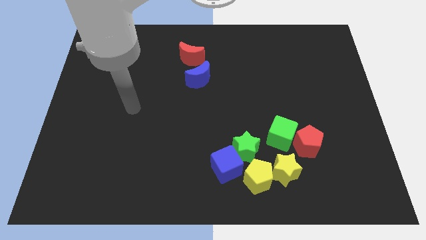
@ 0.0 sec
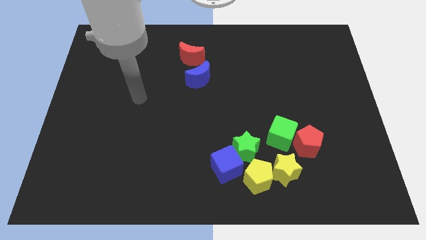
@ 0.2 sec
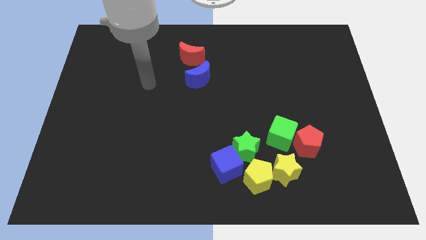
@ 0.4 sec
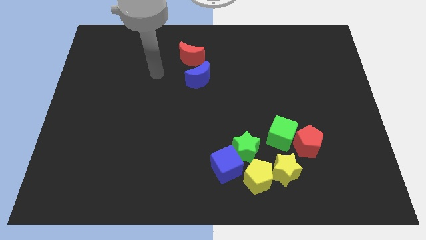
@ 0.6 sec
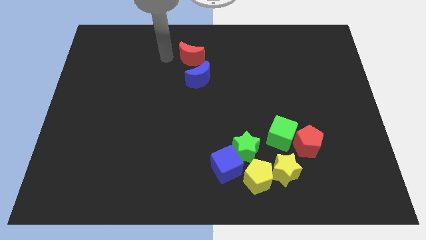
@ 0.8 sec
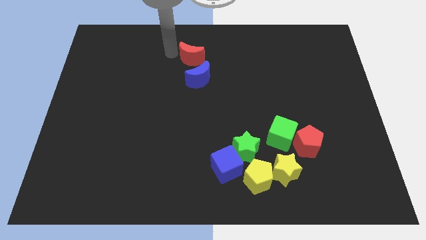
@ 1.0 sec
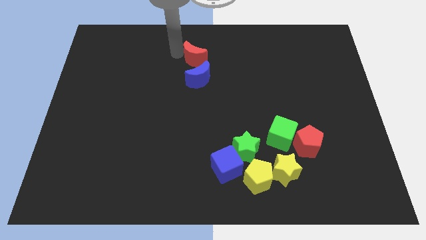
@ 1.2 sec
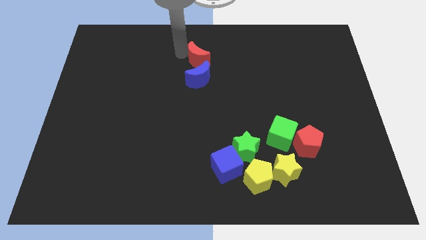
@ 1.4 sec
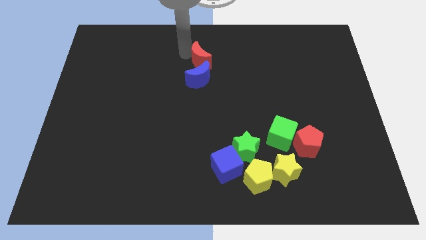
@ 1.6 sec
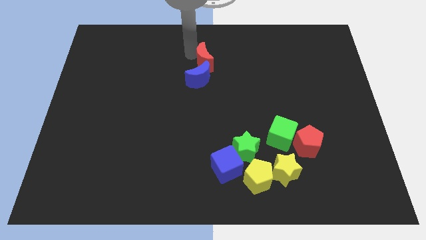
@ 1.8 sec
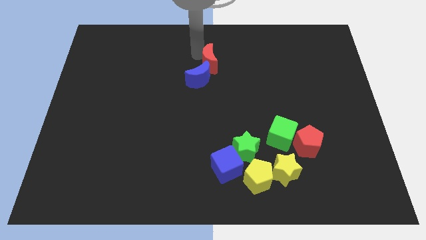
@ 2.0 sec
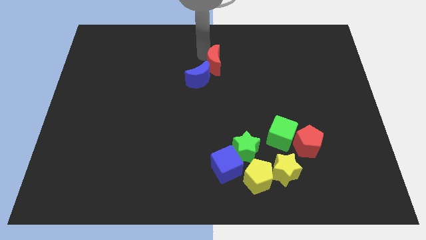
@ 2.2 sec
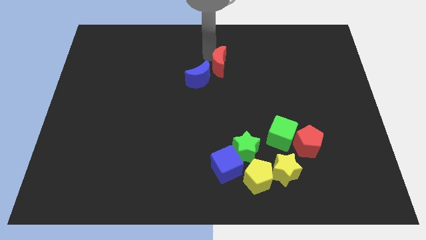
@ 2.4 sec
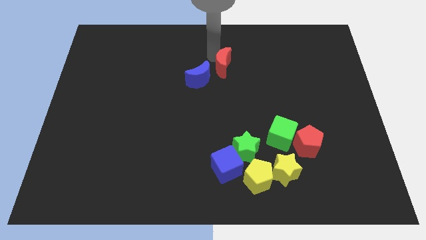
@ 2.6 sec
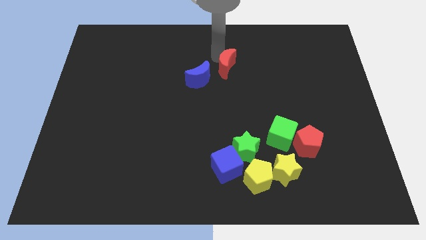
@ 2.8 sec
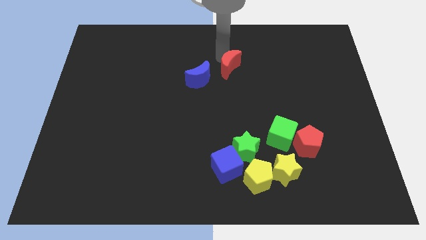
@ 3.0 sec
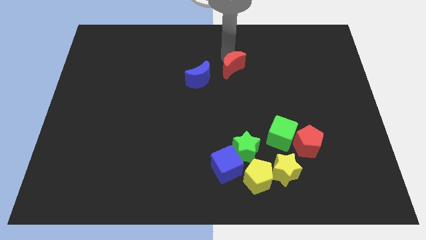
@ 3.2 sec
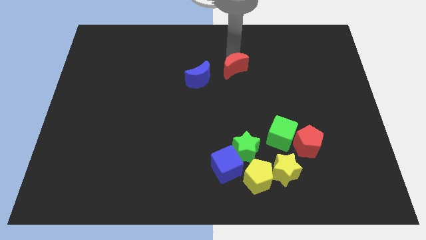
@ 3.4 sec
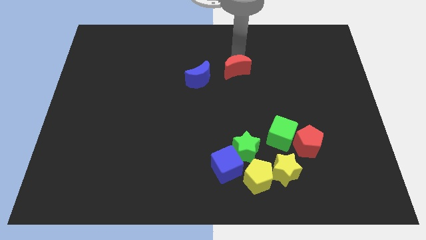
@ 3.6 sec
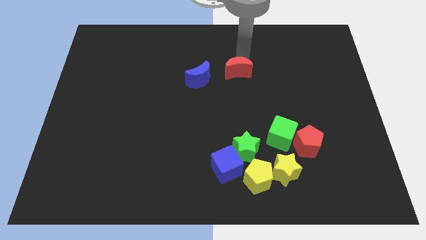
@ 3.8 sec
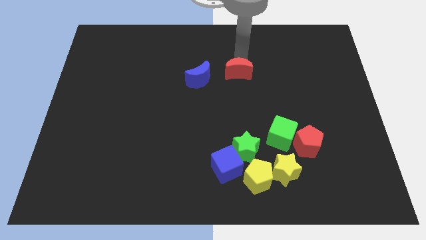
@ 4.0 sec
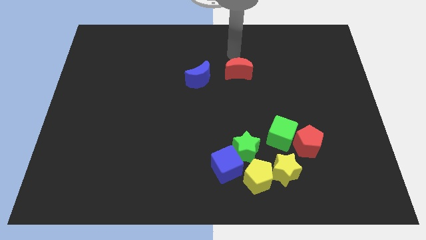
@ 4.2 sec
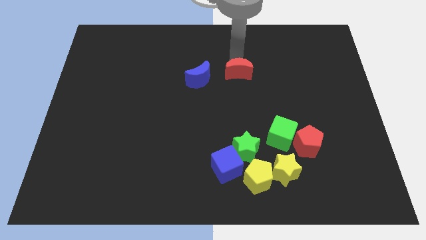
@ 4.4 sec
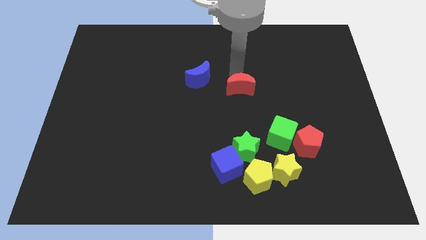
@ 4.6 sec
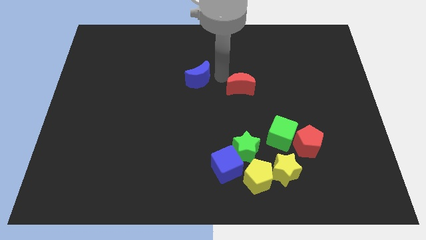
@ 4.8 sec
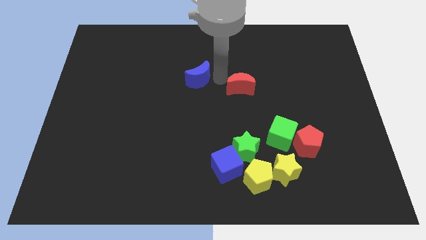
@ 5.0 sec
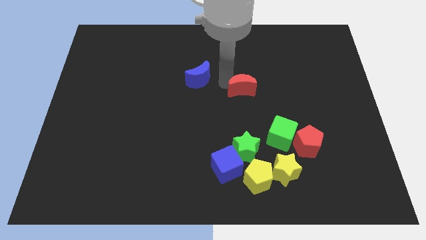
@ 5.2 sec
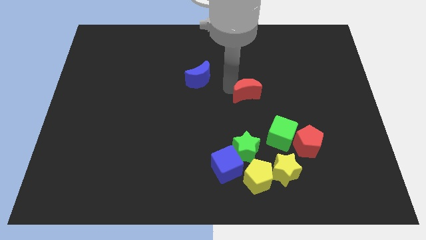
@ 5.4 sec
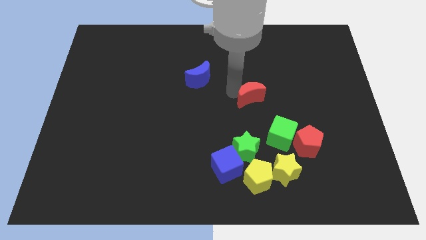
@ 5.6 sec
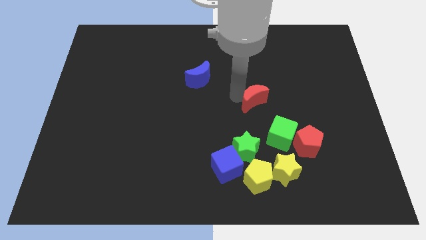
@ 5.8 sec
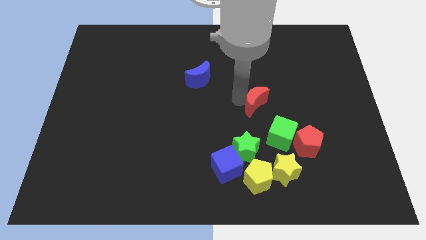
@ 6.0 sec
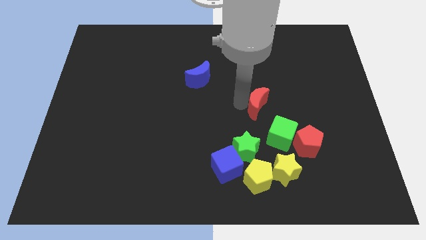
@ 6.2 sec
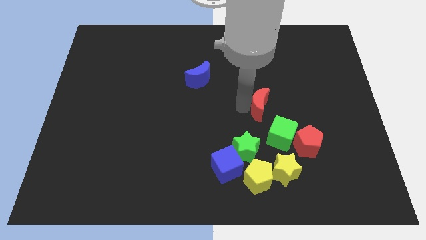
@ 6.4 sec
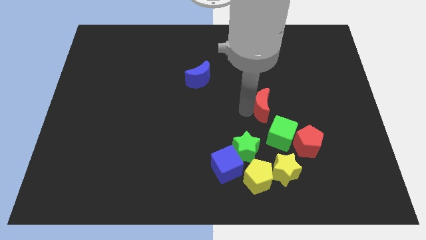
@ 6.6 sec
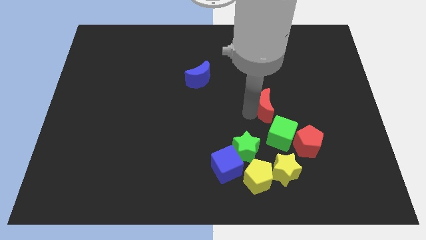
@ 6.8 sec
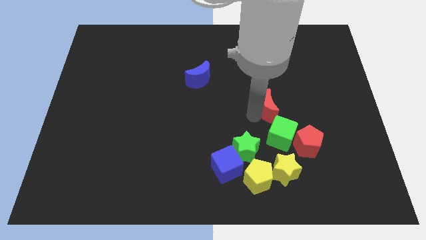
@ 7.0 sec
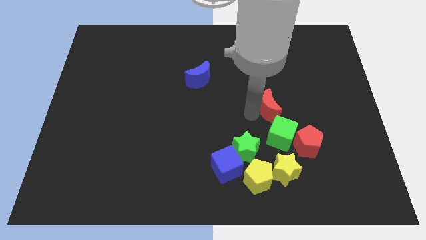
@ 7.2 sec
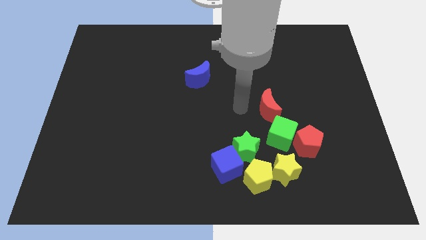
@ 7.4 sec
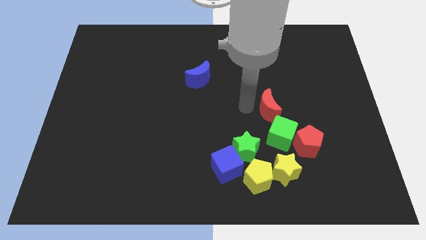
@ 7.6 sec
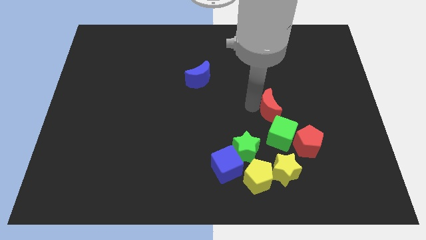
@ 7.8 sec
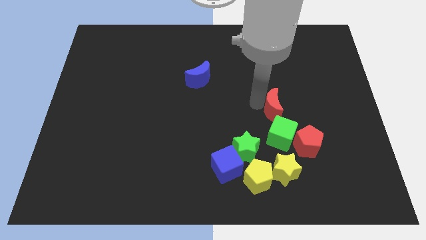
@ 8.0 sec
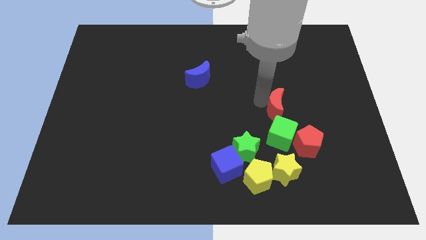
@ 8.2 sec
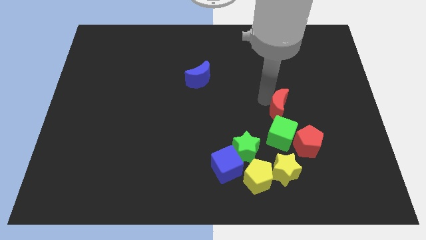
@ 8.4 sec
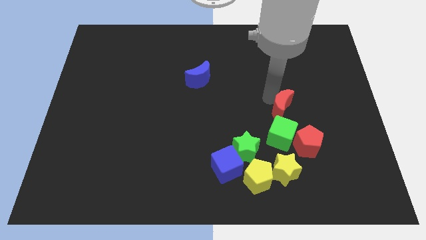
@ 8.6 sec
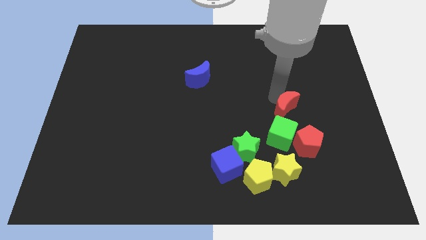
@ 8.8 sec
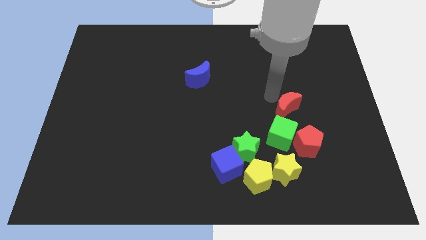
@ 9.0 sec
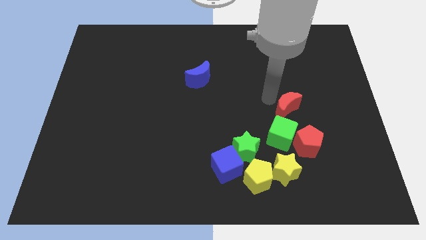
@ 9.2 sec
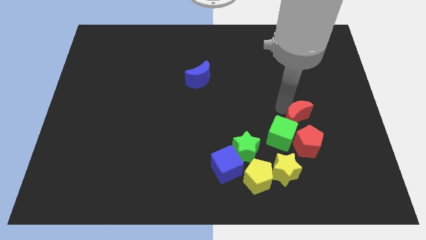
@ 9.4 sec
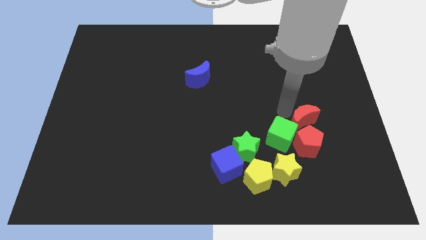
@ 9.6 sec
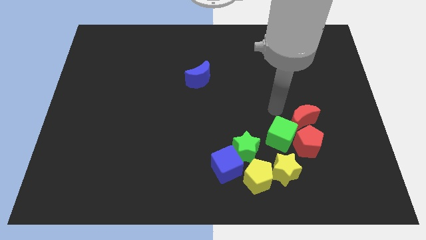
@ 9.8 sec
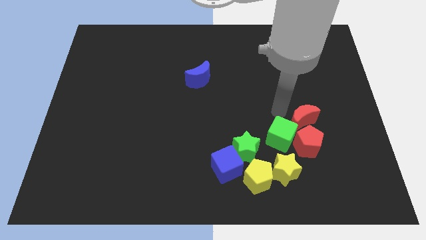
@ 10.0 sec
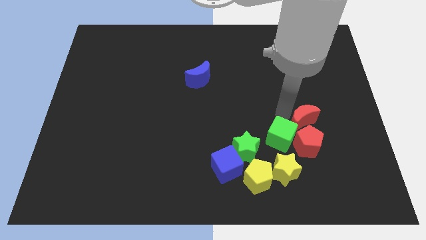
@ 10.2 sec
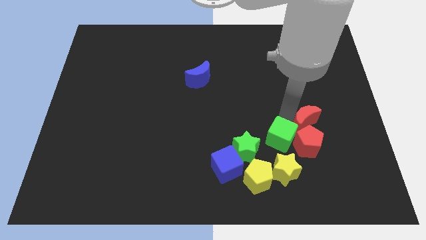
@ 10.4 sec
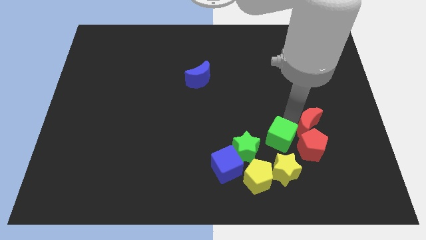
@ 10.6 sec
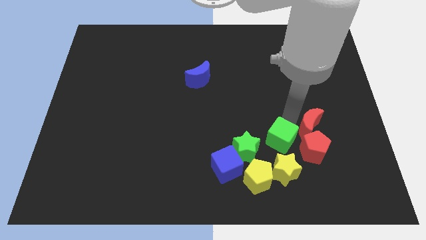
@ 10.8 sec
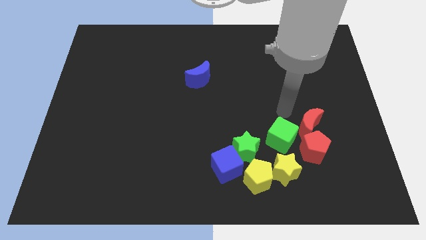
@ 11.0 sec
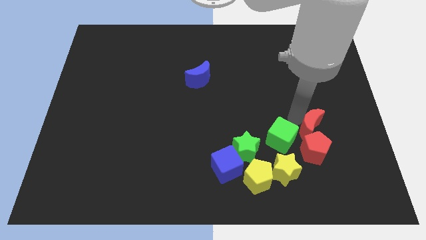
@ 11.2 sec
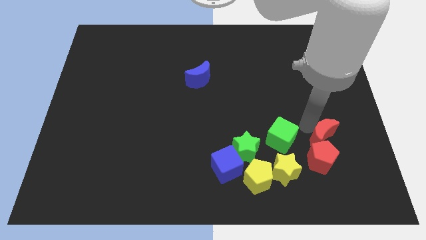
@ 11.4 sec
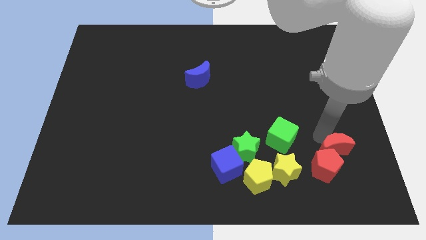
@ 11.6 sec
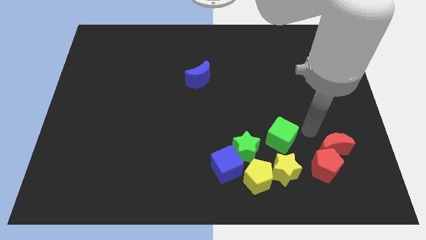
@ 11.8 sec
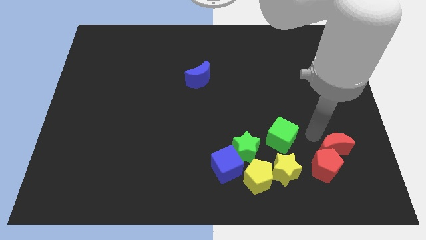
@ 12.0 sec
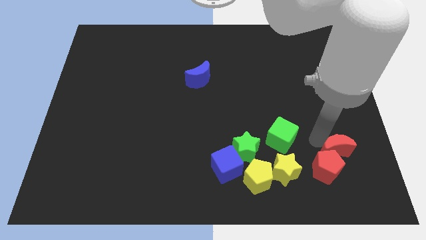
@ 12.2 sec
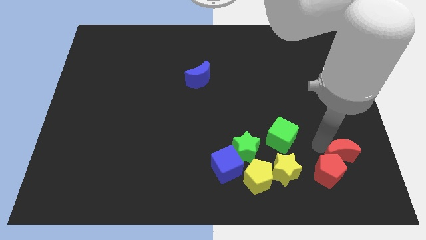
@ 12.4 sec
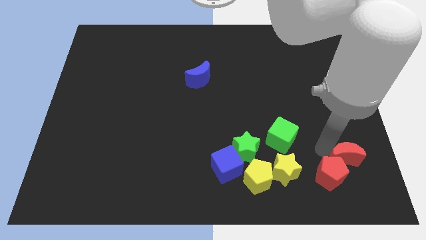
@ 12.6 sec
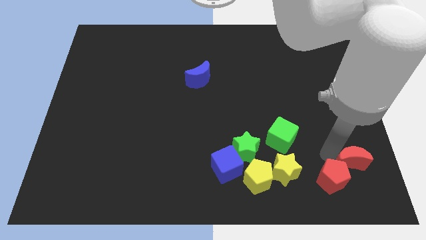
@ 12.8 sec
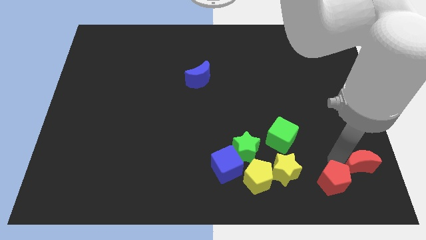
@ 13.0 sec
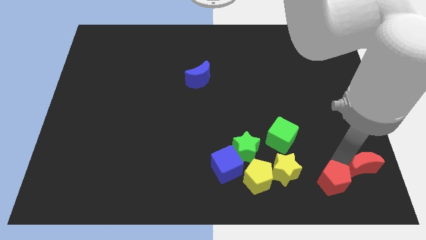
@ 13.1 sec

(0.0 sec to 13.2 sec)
push the red moon to the bottom right

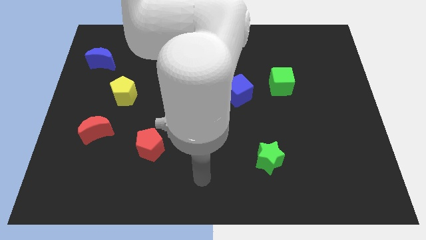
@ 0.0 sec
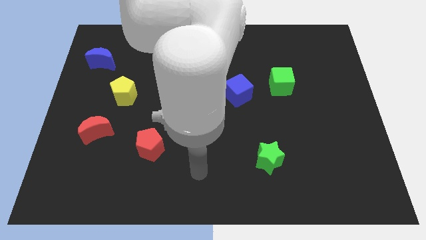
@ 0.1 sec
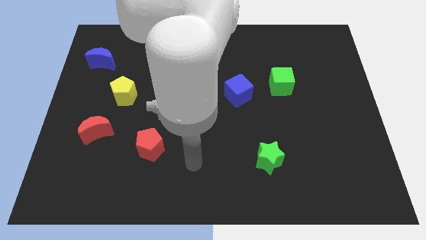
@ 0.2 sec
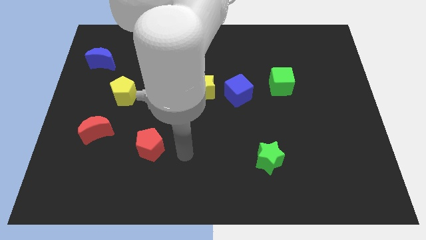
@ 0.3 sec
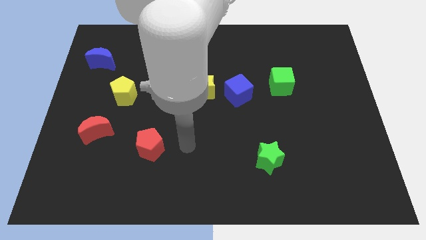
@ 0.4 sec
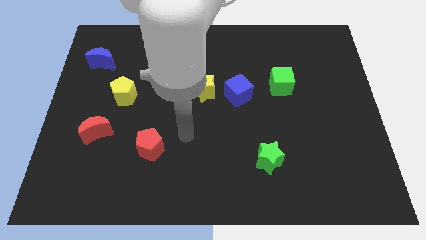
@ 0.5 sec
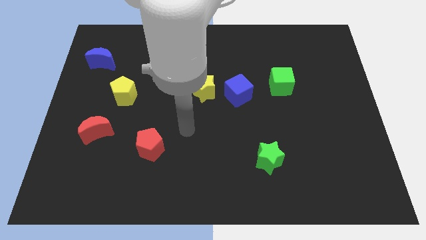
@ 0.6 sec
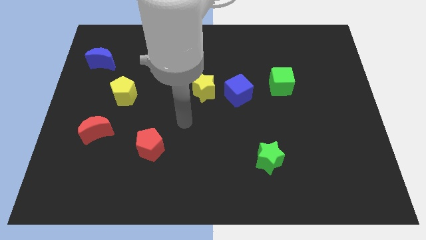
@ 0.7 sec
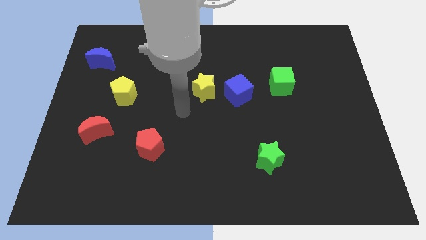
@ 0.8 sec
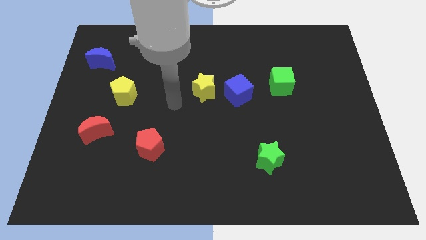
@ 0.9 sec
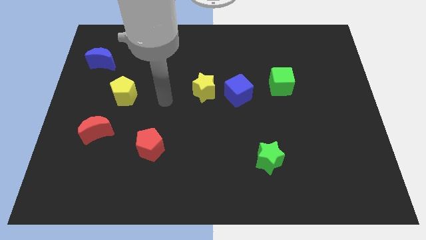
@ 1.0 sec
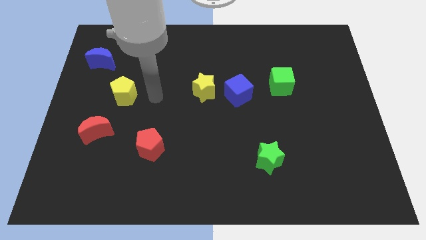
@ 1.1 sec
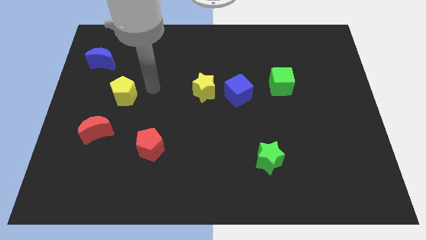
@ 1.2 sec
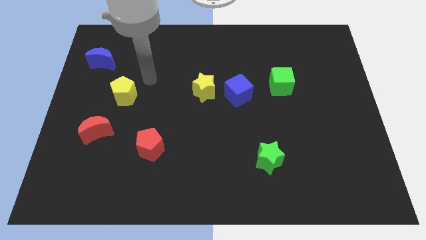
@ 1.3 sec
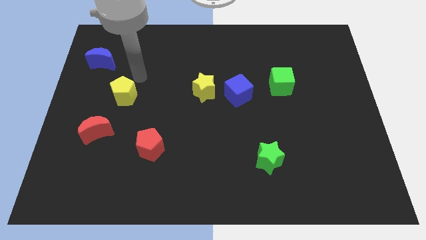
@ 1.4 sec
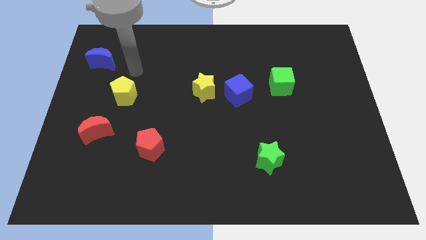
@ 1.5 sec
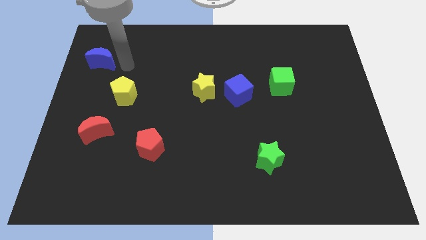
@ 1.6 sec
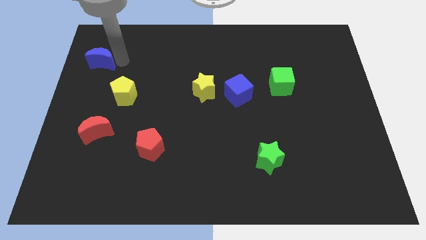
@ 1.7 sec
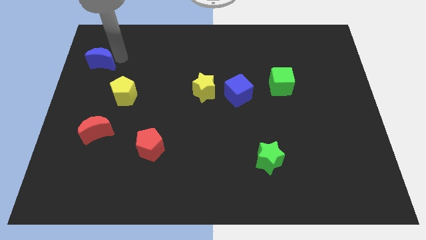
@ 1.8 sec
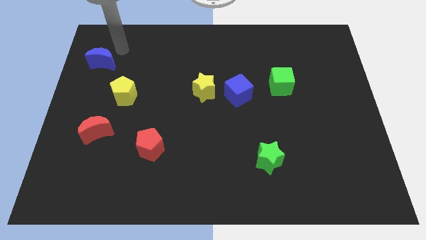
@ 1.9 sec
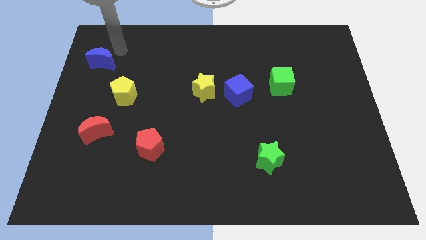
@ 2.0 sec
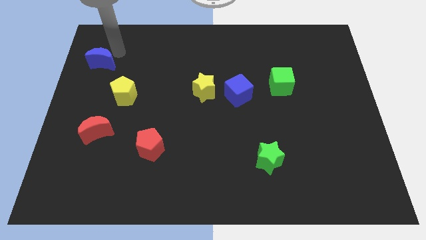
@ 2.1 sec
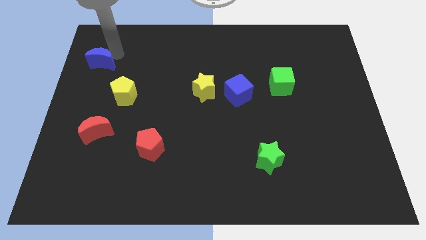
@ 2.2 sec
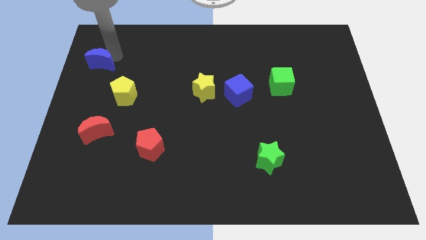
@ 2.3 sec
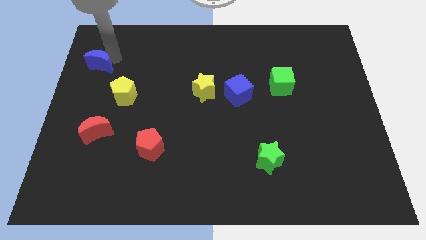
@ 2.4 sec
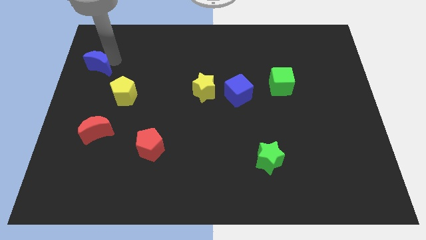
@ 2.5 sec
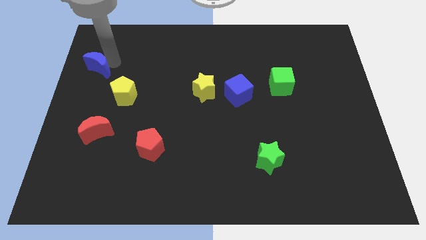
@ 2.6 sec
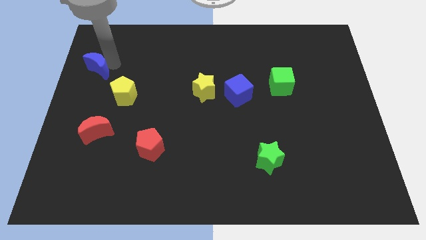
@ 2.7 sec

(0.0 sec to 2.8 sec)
slide the blue moon to the center left
